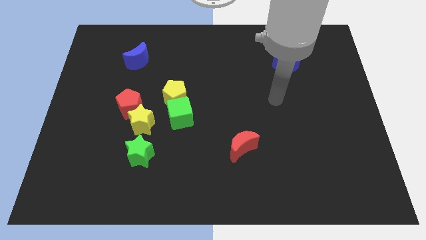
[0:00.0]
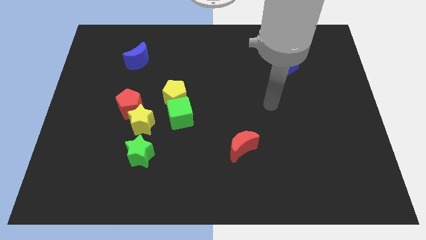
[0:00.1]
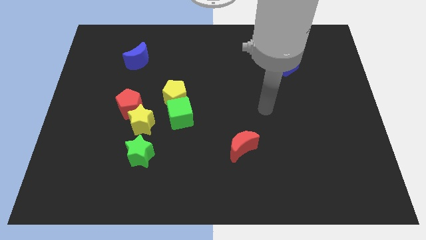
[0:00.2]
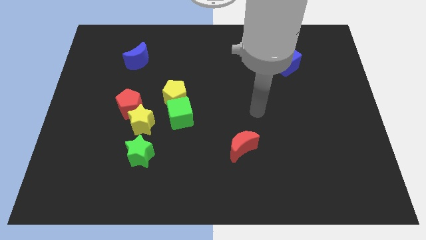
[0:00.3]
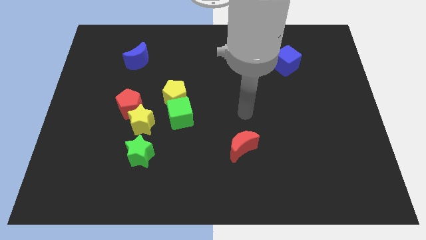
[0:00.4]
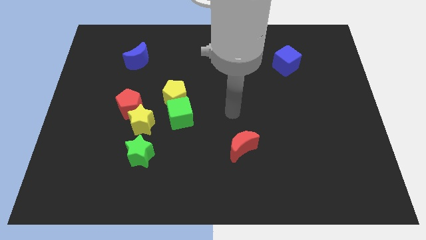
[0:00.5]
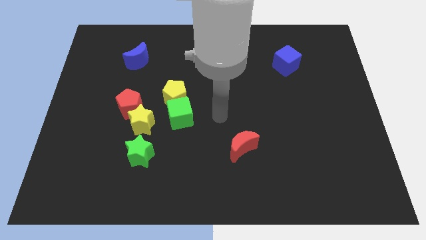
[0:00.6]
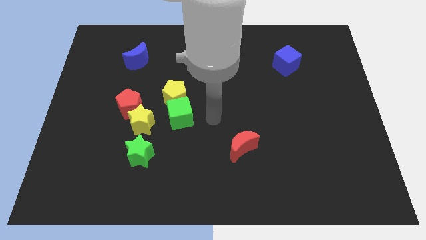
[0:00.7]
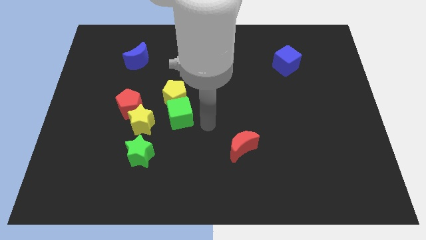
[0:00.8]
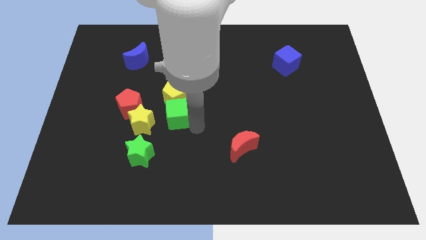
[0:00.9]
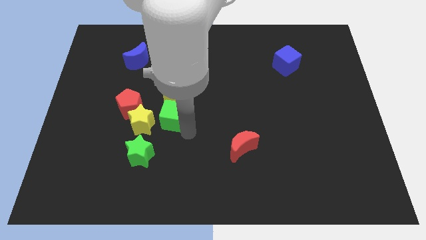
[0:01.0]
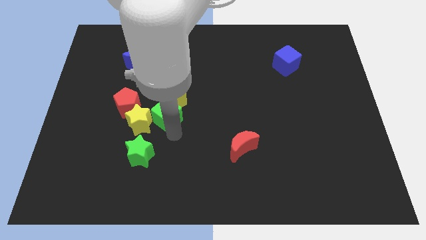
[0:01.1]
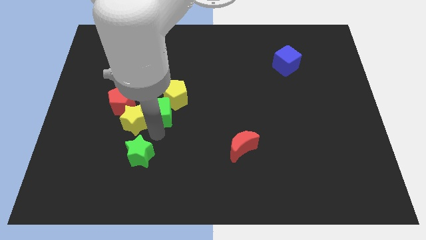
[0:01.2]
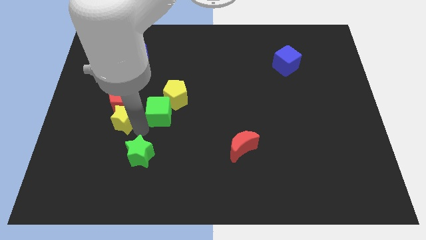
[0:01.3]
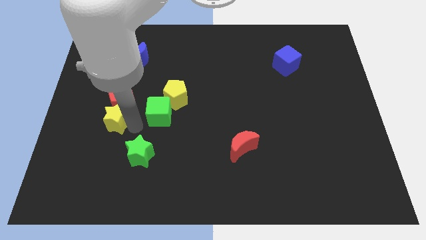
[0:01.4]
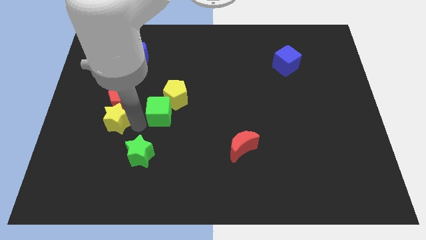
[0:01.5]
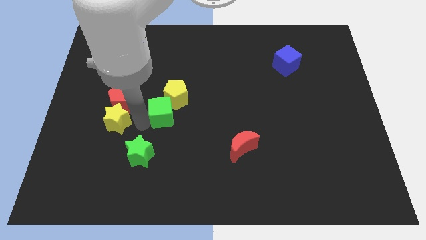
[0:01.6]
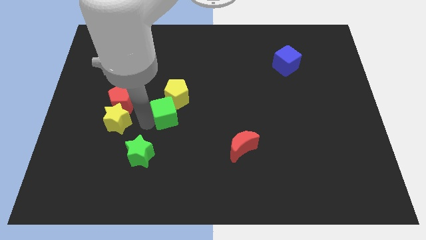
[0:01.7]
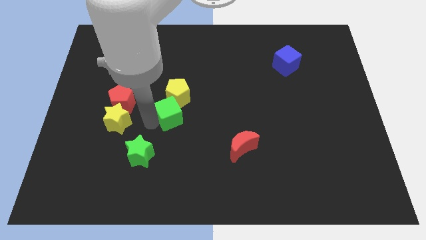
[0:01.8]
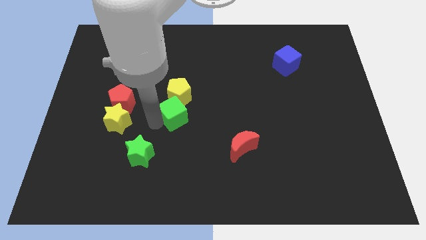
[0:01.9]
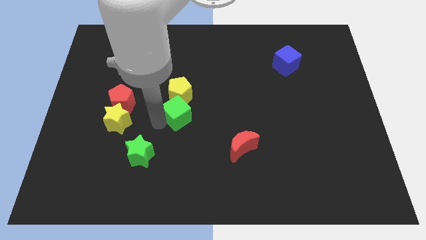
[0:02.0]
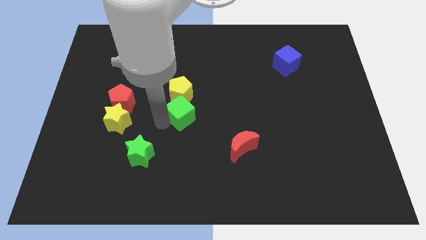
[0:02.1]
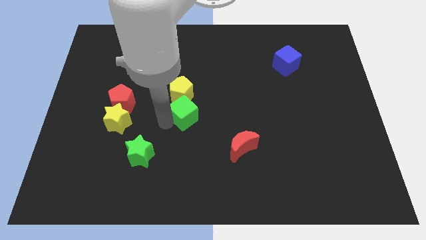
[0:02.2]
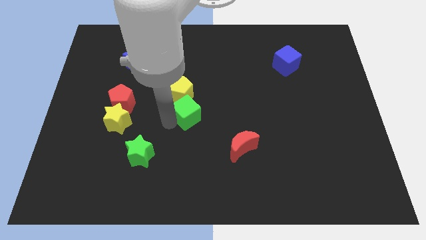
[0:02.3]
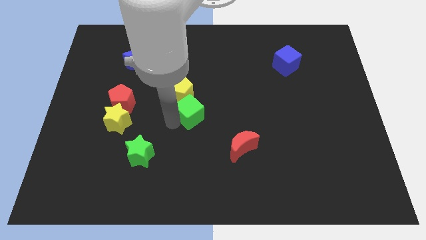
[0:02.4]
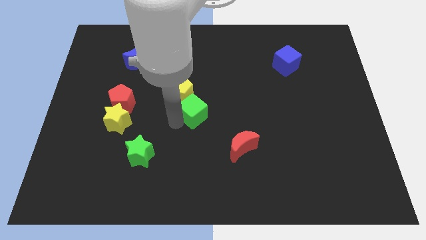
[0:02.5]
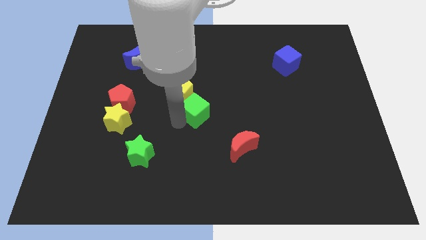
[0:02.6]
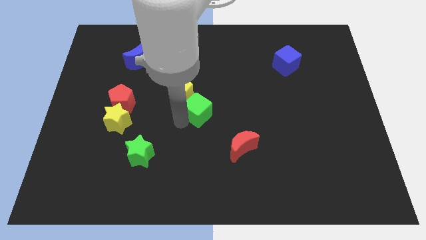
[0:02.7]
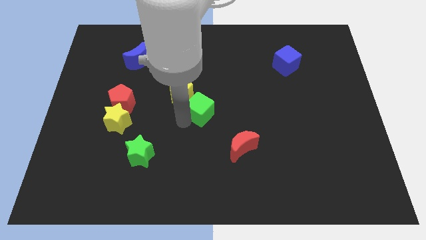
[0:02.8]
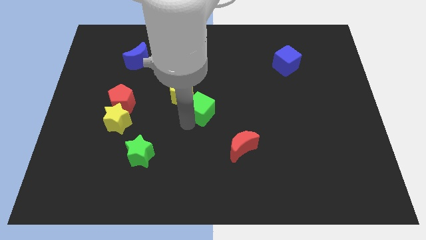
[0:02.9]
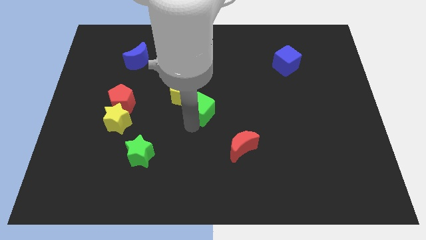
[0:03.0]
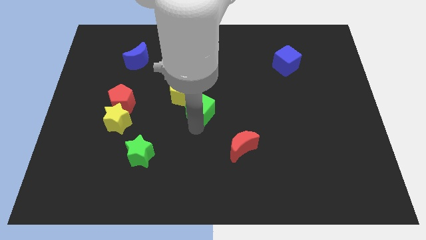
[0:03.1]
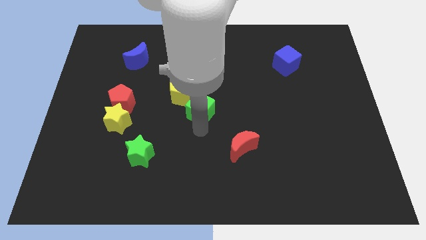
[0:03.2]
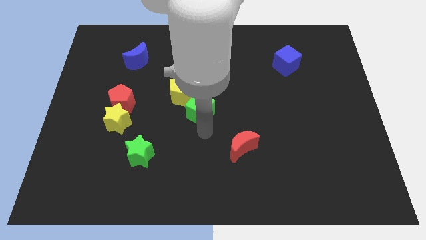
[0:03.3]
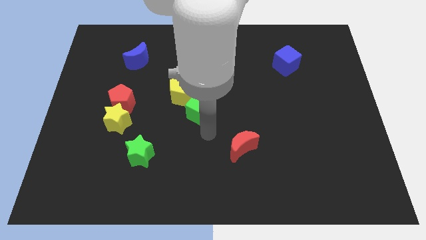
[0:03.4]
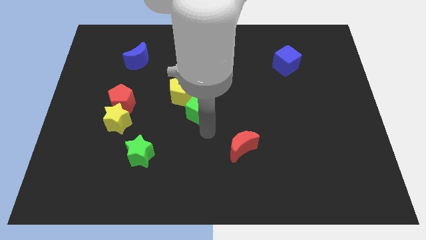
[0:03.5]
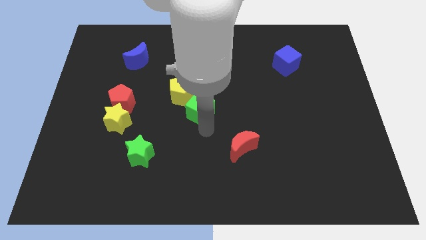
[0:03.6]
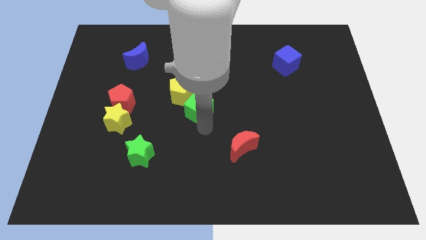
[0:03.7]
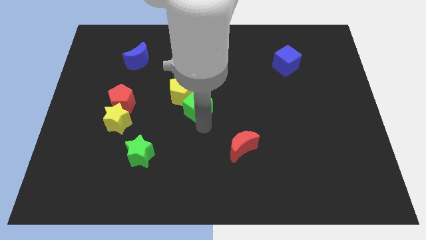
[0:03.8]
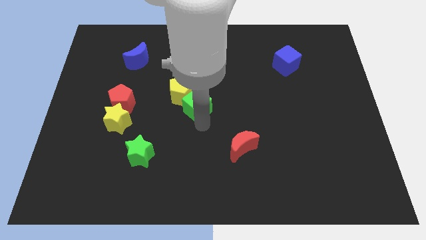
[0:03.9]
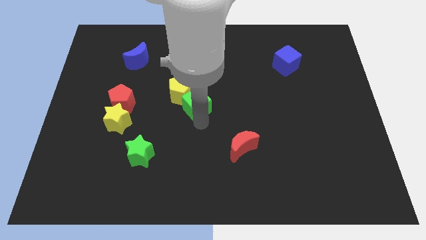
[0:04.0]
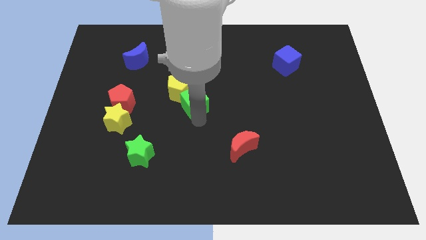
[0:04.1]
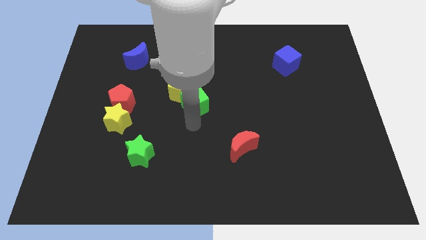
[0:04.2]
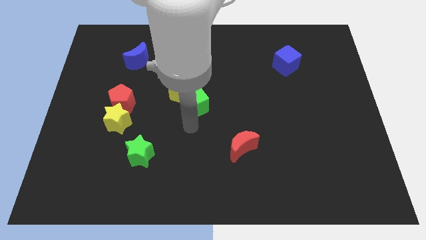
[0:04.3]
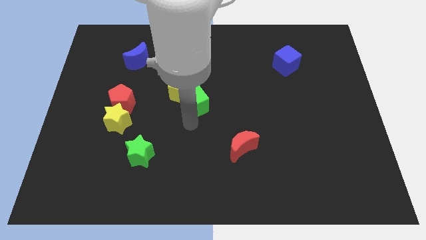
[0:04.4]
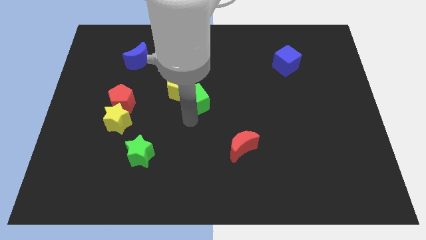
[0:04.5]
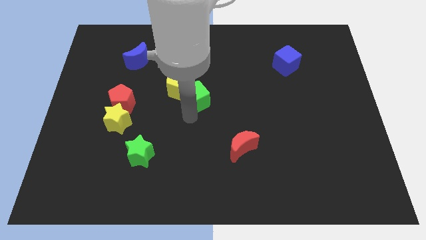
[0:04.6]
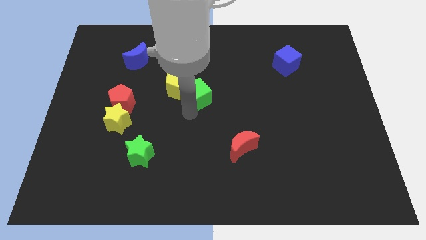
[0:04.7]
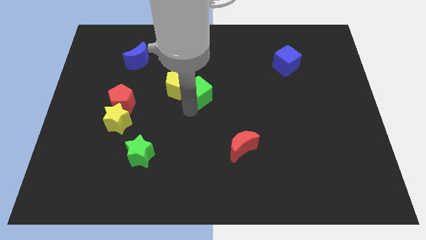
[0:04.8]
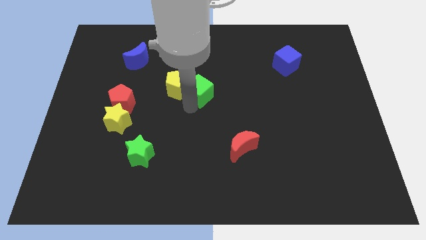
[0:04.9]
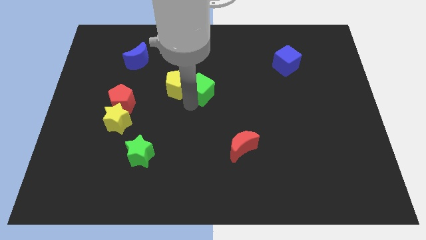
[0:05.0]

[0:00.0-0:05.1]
push the green cube diagonally up and to the right of the yellow pentagon

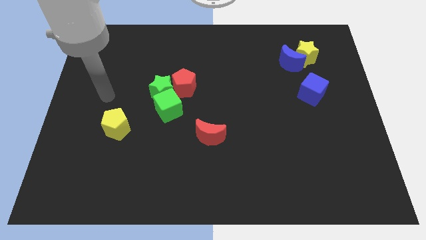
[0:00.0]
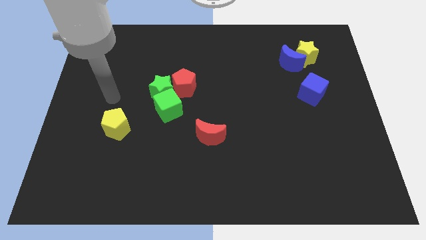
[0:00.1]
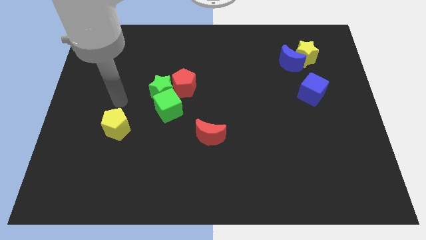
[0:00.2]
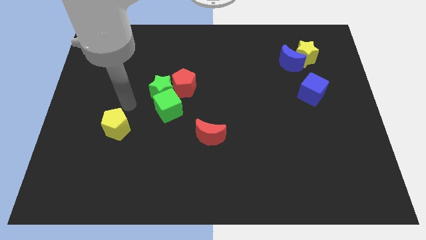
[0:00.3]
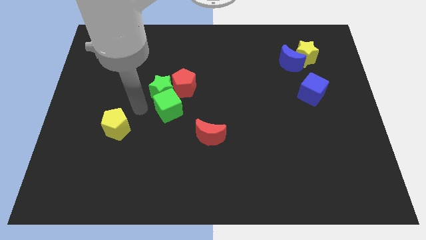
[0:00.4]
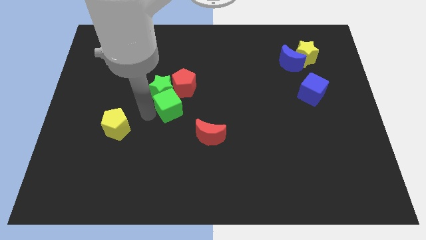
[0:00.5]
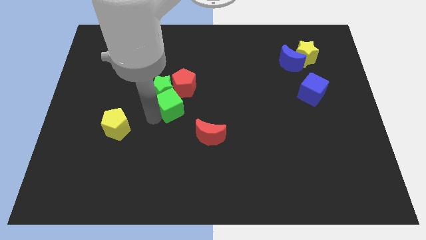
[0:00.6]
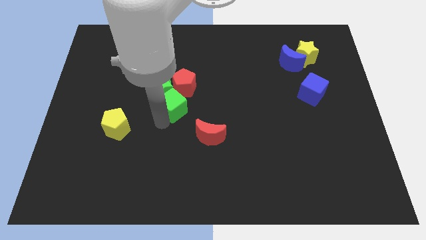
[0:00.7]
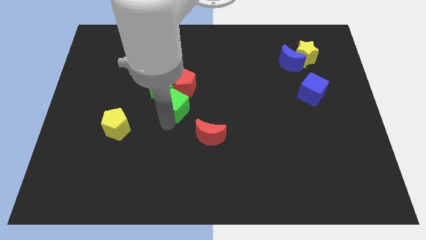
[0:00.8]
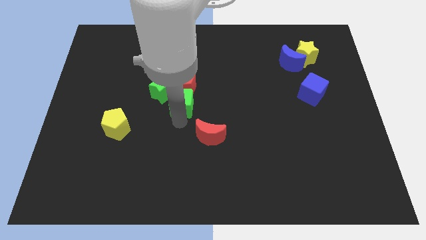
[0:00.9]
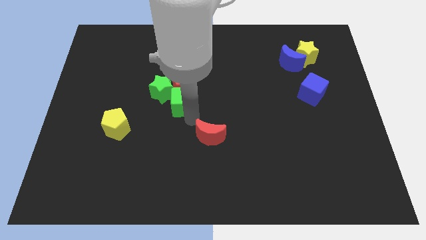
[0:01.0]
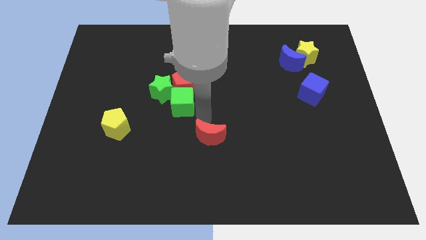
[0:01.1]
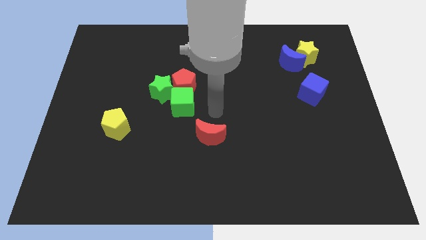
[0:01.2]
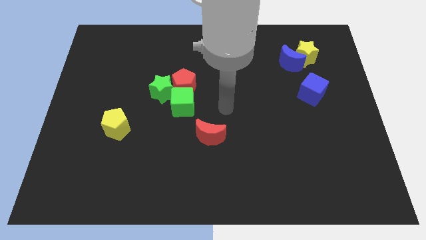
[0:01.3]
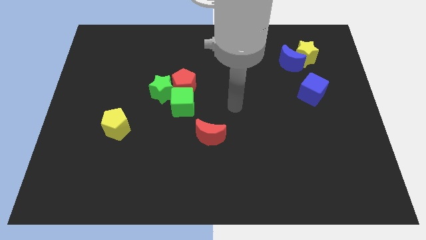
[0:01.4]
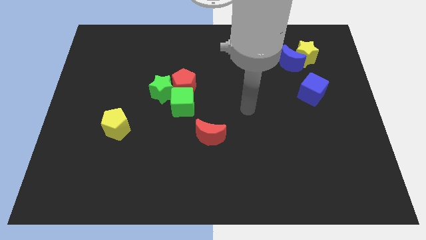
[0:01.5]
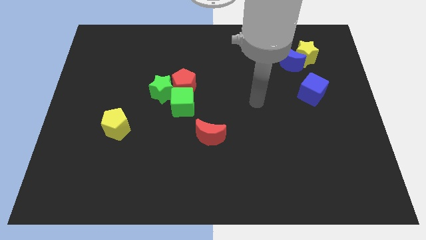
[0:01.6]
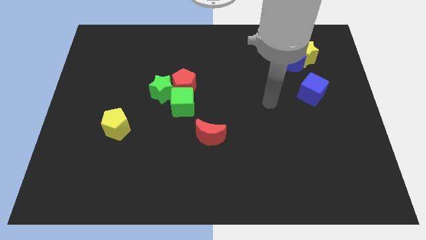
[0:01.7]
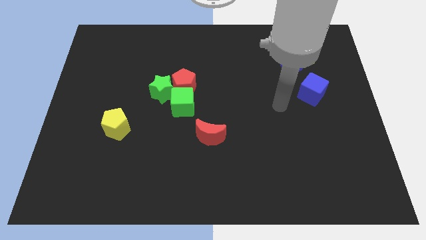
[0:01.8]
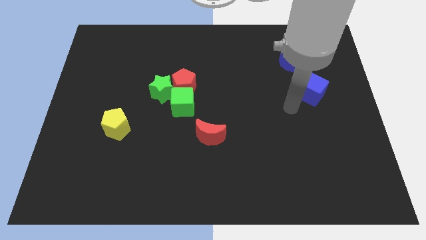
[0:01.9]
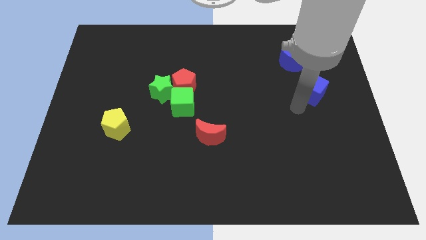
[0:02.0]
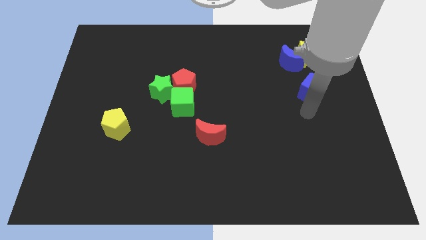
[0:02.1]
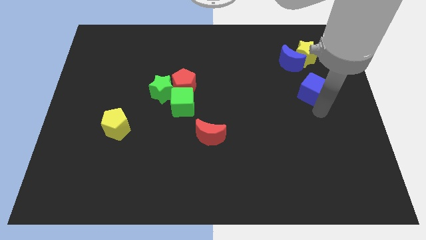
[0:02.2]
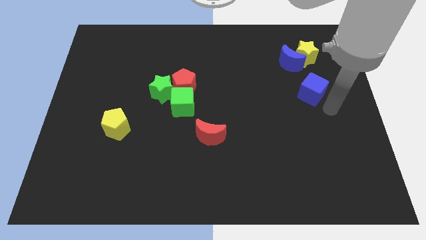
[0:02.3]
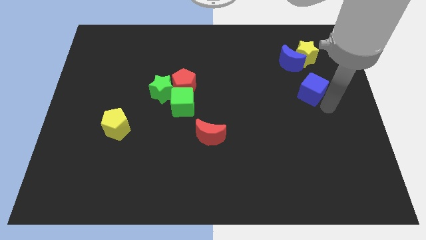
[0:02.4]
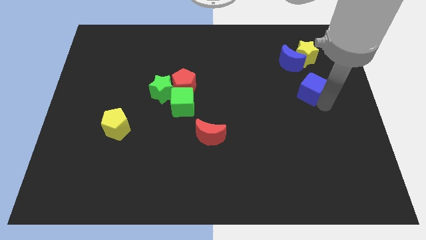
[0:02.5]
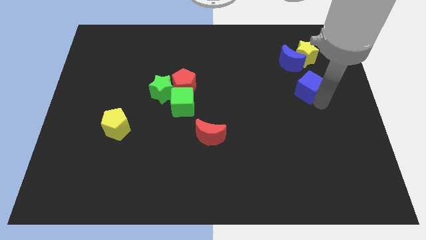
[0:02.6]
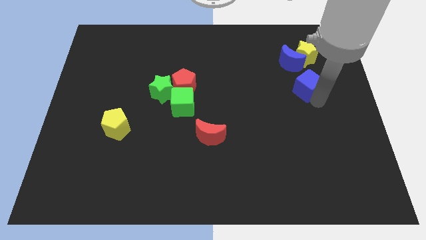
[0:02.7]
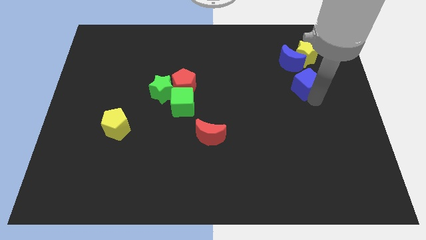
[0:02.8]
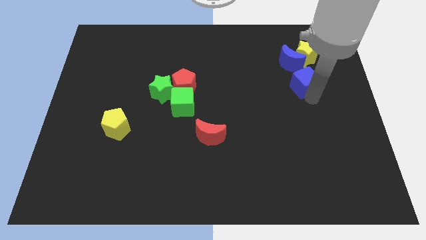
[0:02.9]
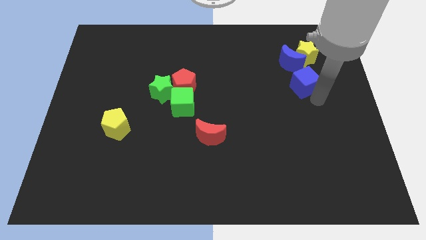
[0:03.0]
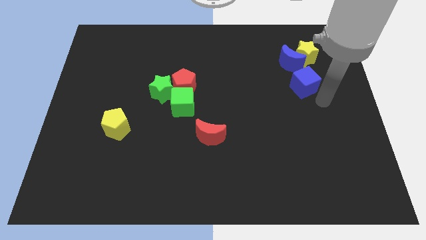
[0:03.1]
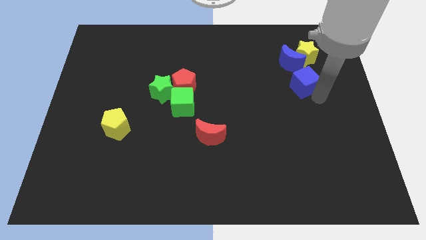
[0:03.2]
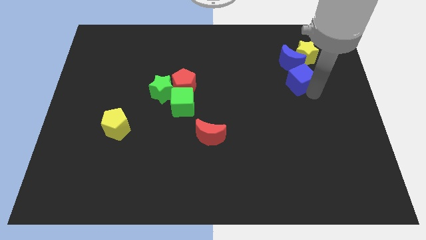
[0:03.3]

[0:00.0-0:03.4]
slide the blue cube to the bottom left side of the yellow star
